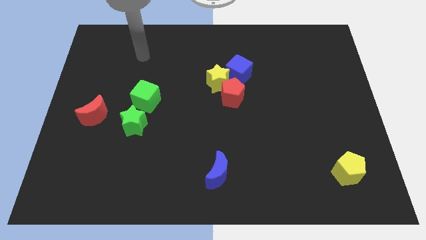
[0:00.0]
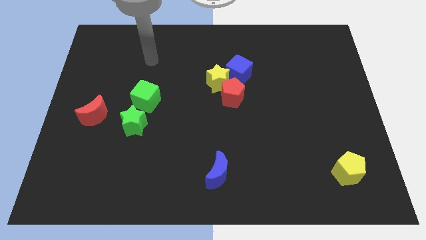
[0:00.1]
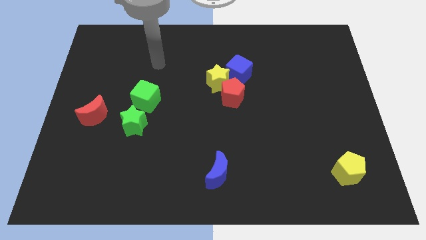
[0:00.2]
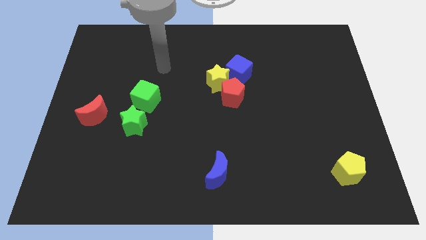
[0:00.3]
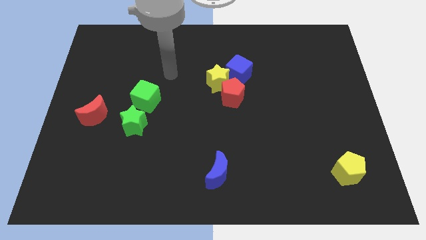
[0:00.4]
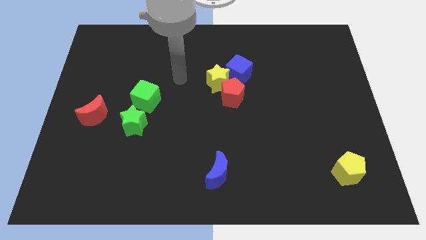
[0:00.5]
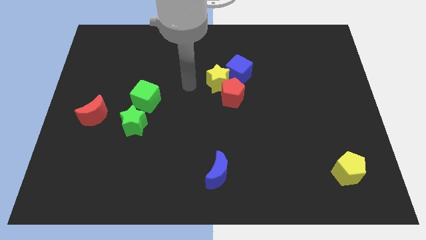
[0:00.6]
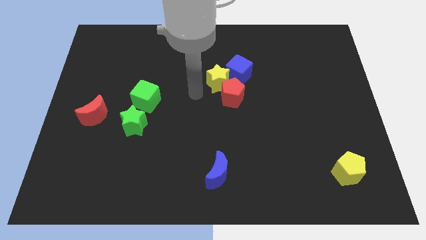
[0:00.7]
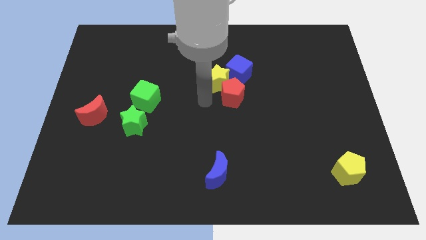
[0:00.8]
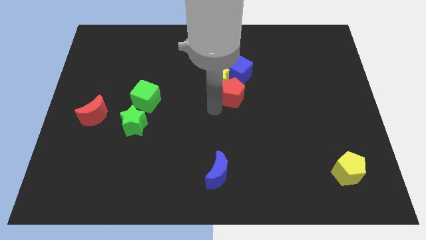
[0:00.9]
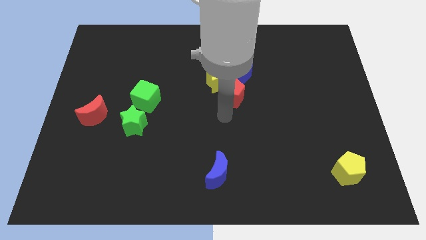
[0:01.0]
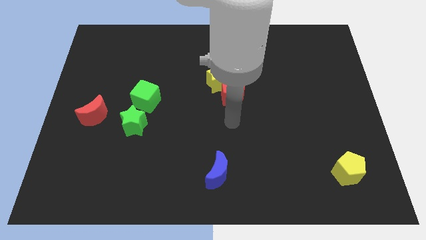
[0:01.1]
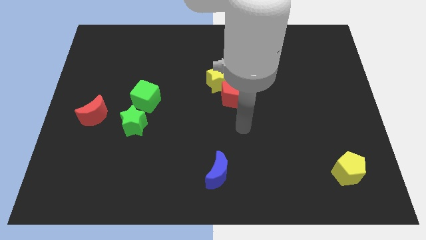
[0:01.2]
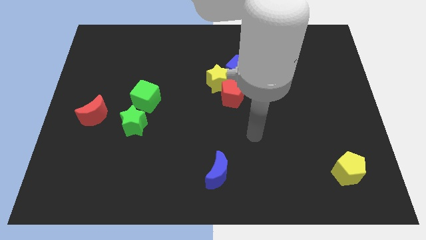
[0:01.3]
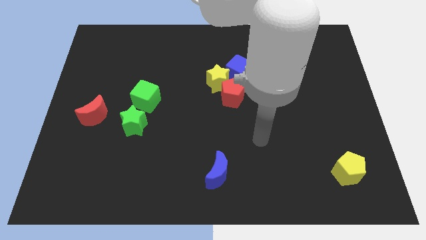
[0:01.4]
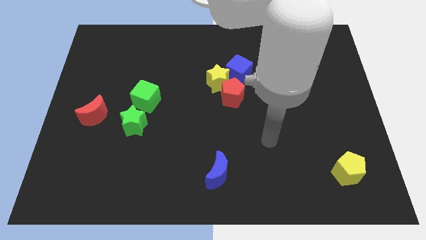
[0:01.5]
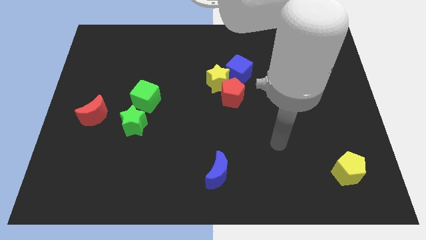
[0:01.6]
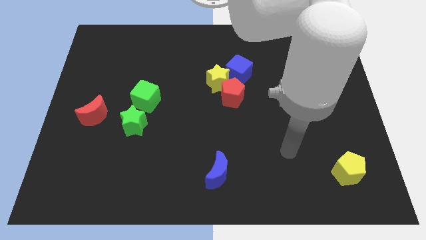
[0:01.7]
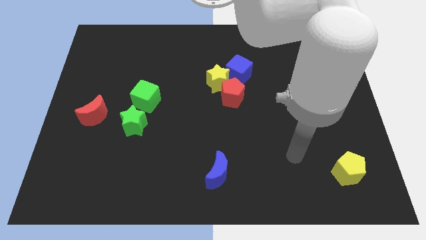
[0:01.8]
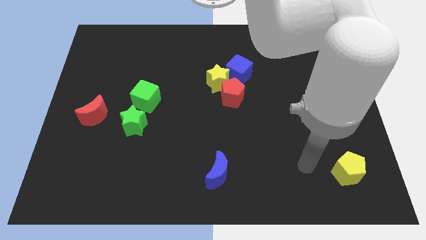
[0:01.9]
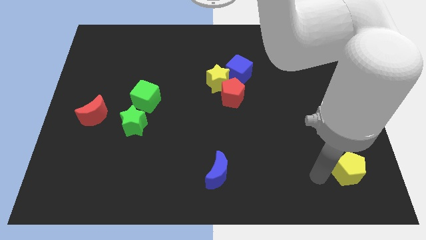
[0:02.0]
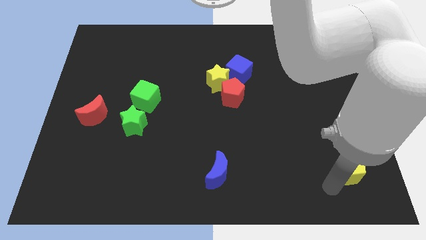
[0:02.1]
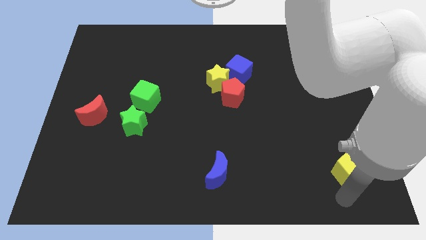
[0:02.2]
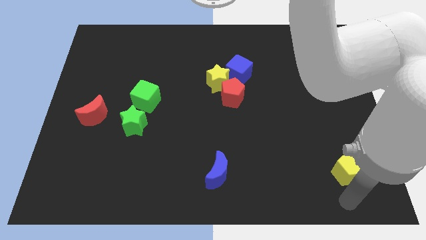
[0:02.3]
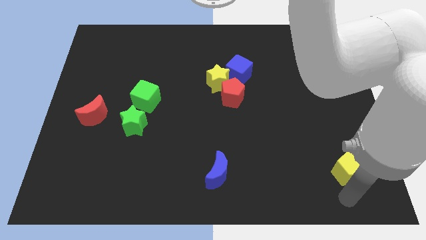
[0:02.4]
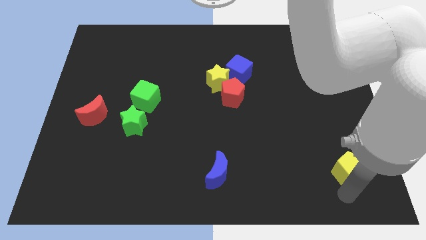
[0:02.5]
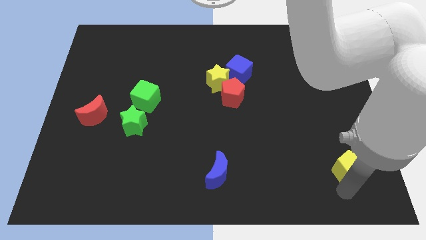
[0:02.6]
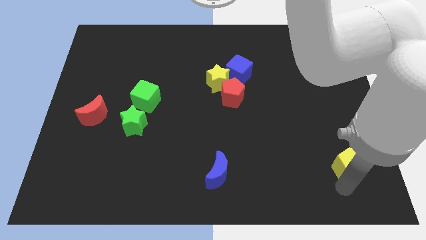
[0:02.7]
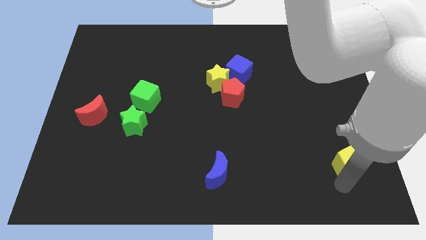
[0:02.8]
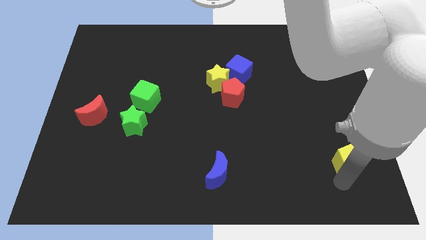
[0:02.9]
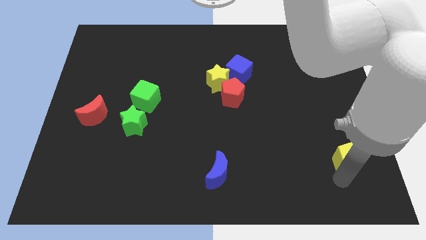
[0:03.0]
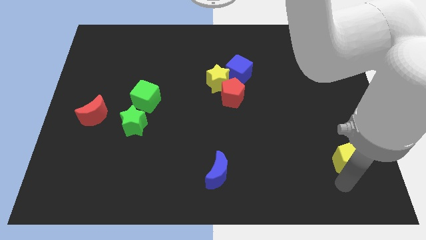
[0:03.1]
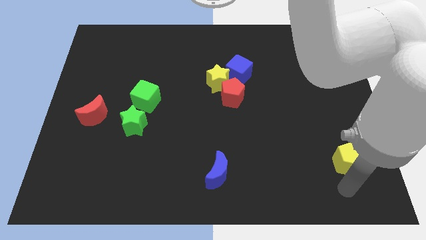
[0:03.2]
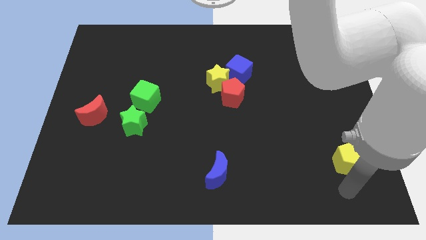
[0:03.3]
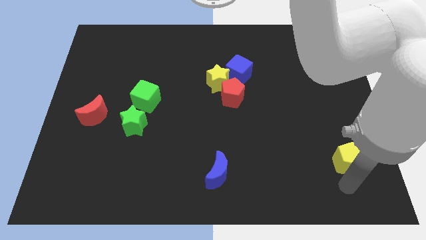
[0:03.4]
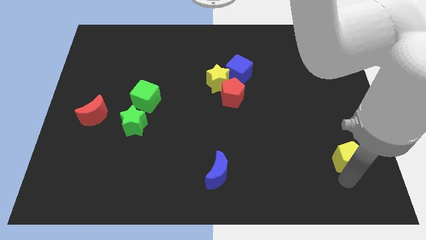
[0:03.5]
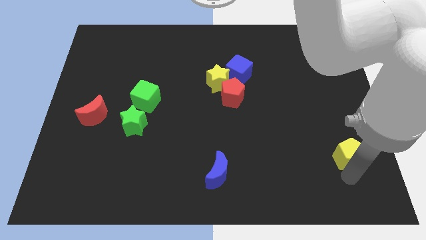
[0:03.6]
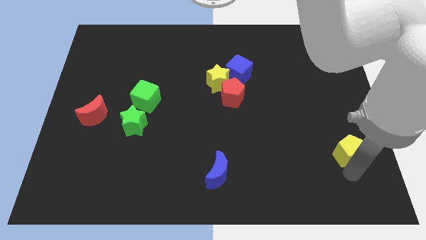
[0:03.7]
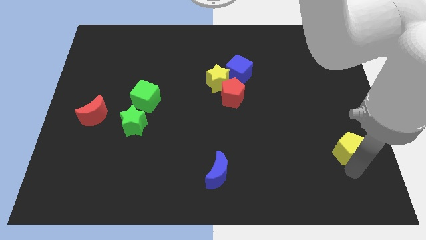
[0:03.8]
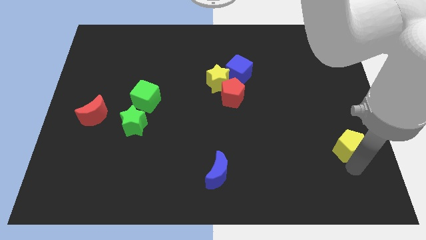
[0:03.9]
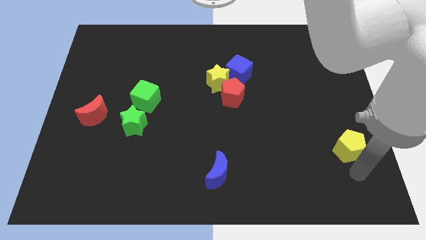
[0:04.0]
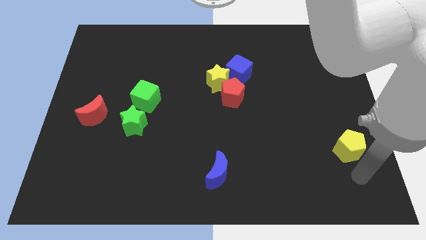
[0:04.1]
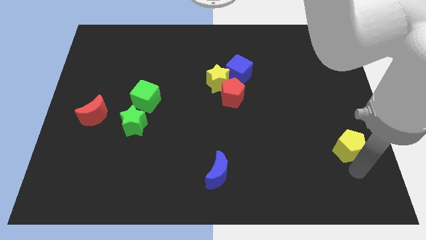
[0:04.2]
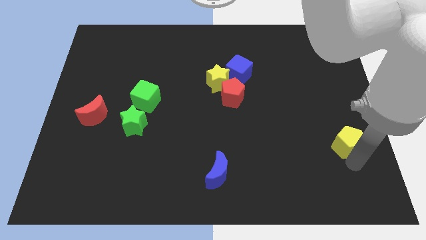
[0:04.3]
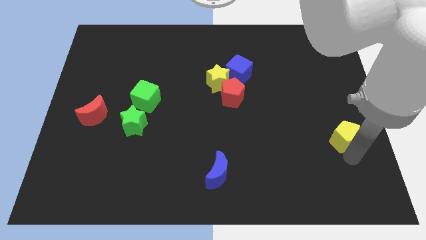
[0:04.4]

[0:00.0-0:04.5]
push the yellow pentagon upwards a little bit

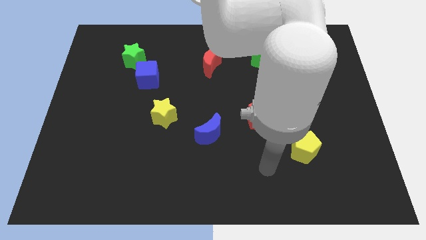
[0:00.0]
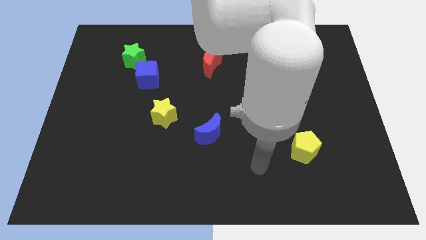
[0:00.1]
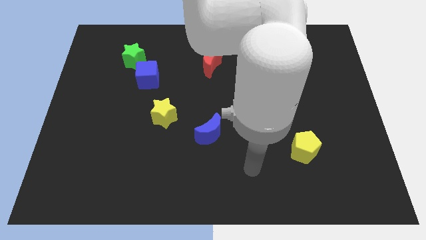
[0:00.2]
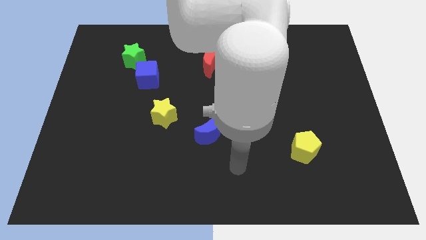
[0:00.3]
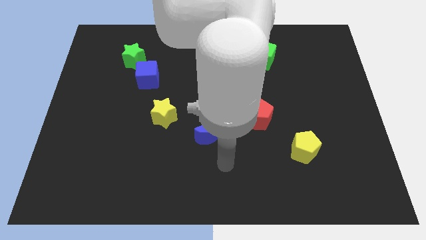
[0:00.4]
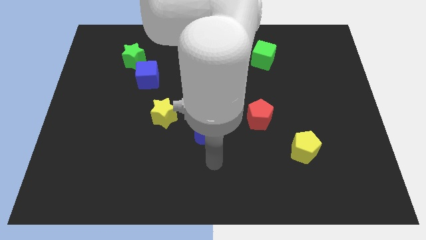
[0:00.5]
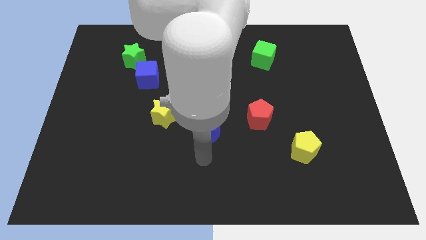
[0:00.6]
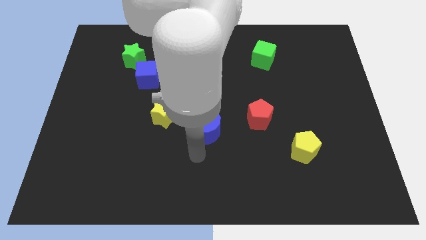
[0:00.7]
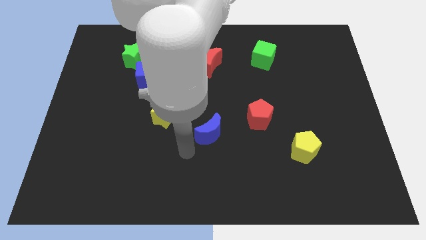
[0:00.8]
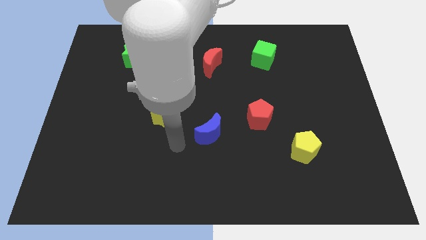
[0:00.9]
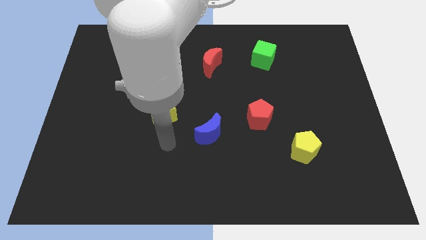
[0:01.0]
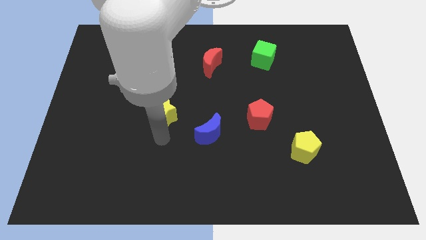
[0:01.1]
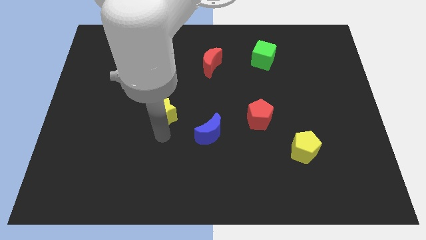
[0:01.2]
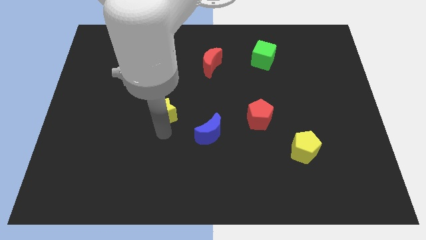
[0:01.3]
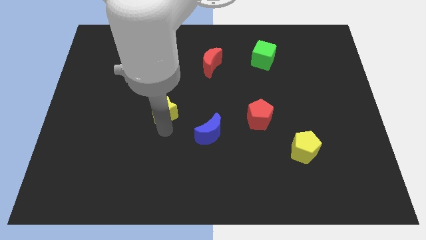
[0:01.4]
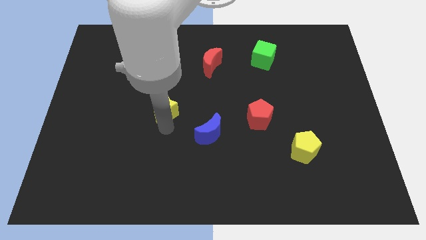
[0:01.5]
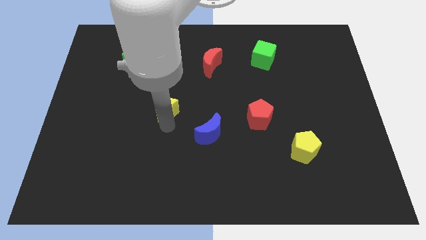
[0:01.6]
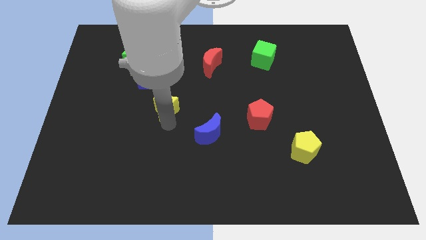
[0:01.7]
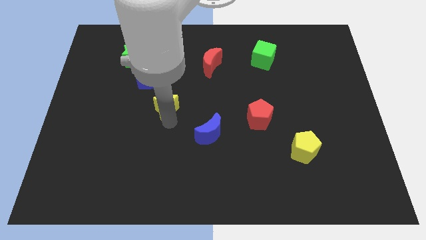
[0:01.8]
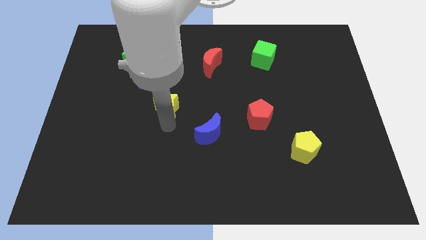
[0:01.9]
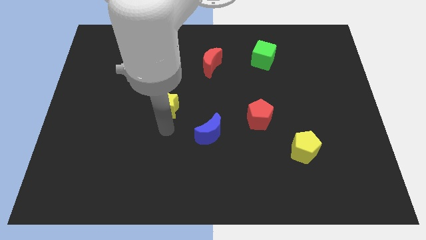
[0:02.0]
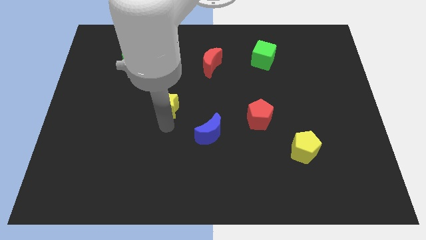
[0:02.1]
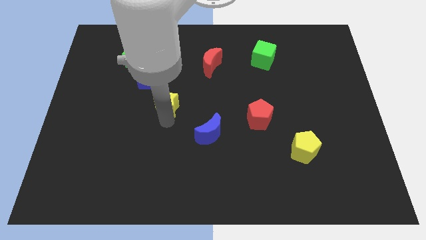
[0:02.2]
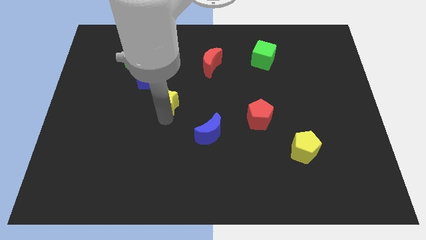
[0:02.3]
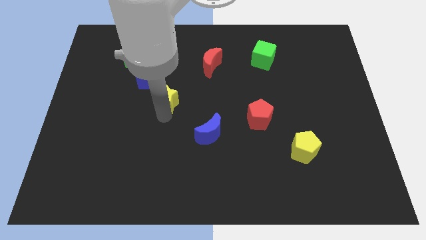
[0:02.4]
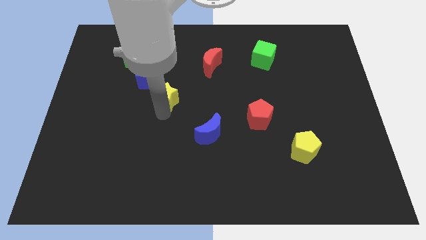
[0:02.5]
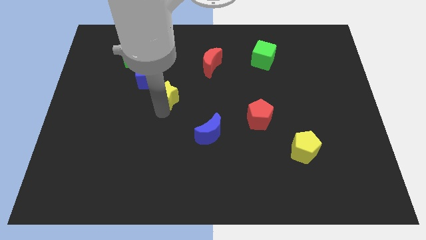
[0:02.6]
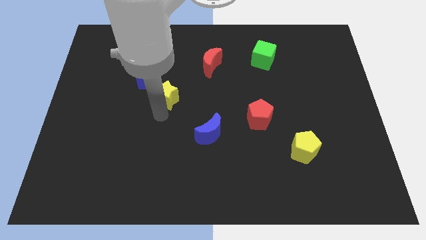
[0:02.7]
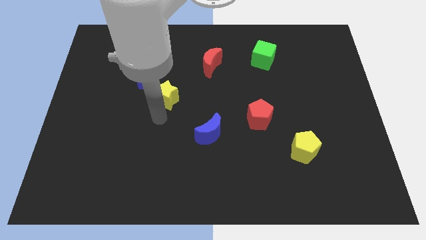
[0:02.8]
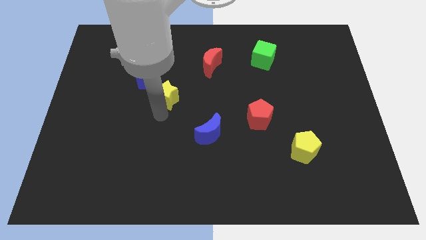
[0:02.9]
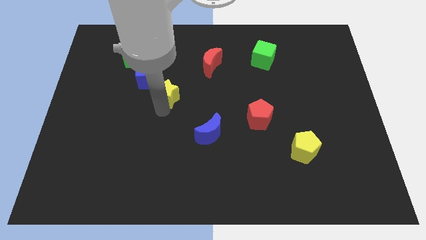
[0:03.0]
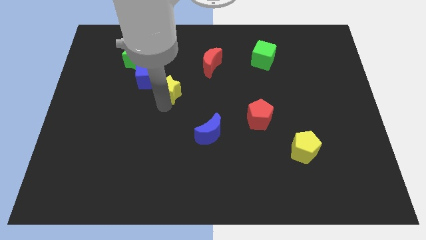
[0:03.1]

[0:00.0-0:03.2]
move the yellow star a little upwards

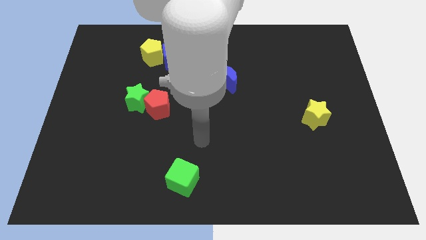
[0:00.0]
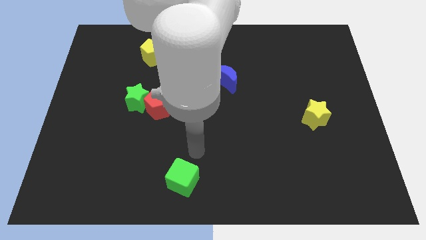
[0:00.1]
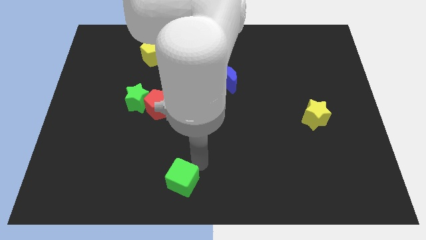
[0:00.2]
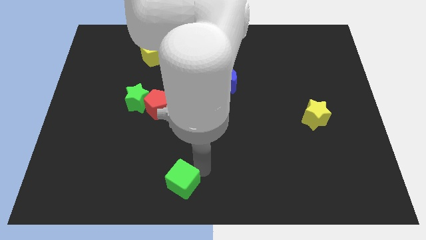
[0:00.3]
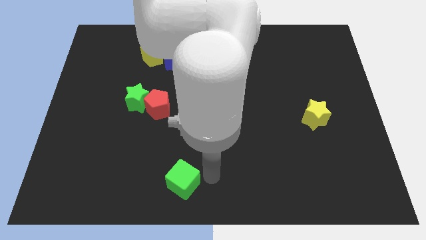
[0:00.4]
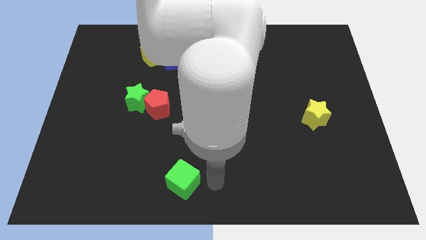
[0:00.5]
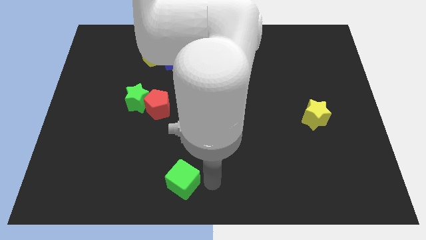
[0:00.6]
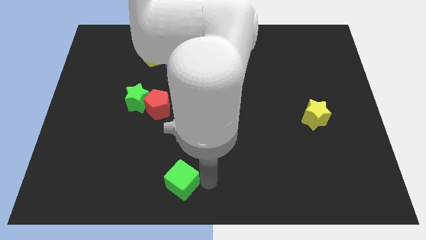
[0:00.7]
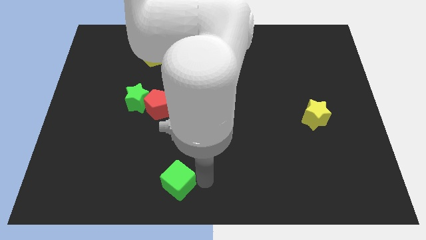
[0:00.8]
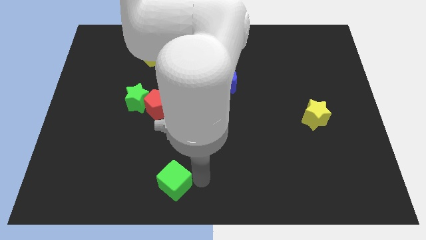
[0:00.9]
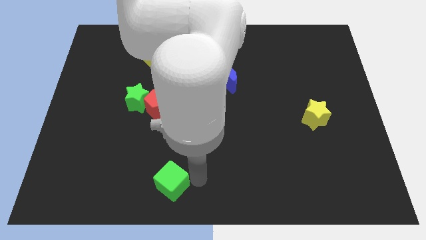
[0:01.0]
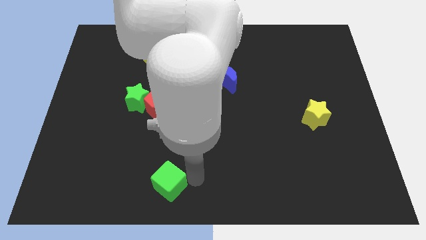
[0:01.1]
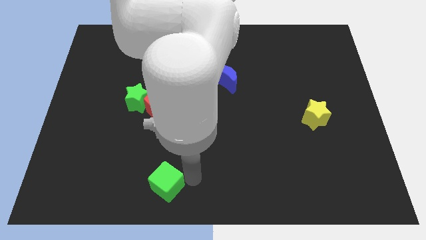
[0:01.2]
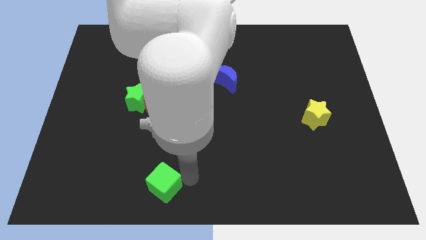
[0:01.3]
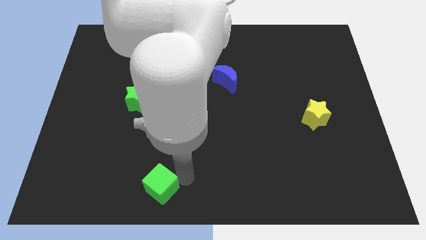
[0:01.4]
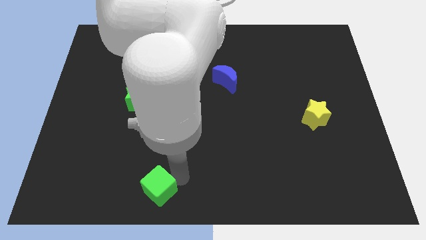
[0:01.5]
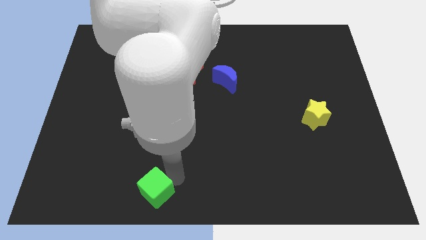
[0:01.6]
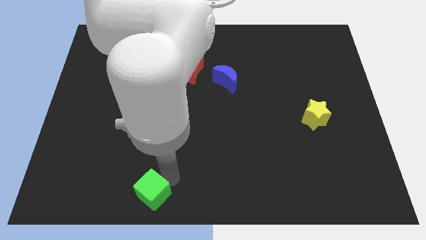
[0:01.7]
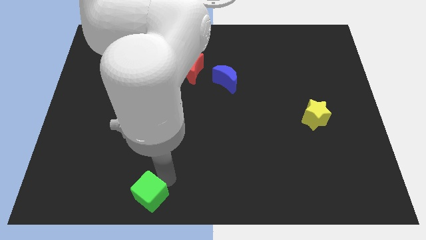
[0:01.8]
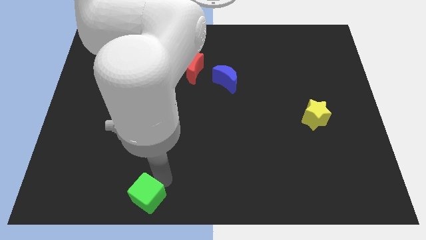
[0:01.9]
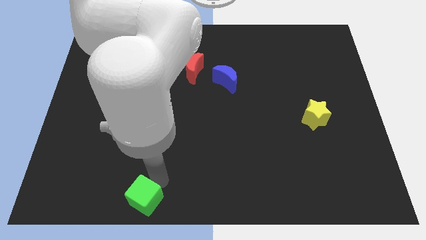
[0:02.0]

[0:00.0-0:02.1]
move the green cube to the left slightly
